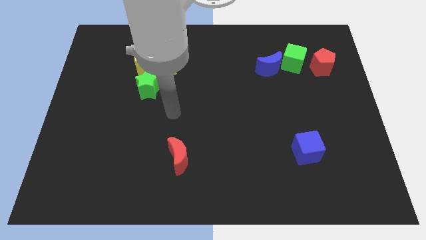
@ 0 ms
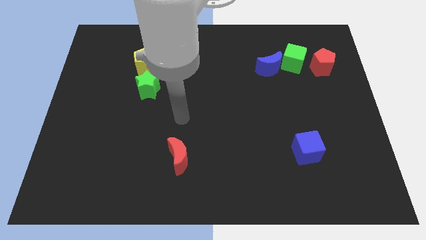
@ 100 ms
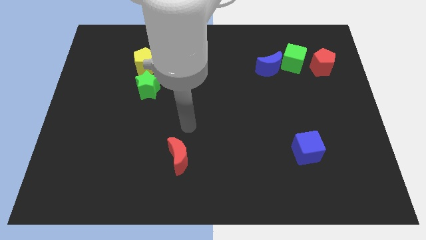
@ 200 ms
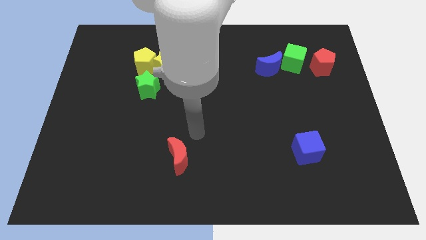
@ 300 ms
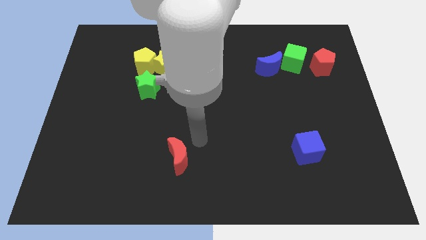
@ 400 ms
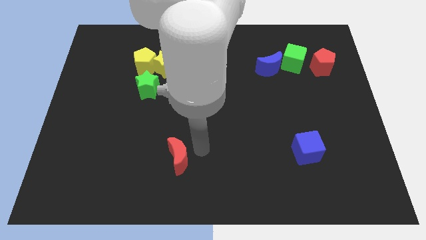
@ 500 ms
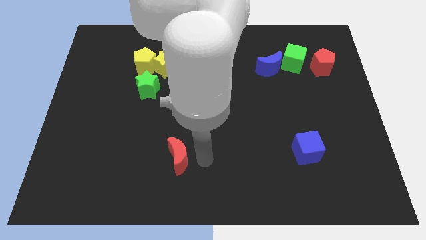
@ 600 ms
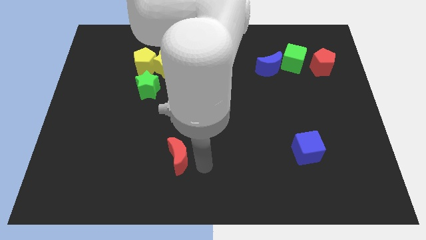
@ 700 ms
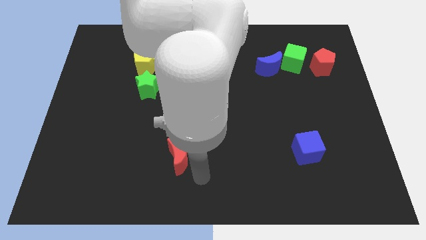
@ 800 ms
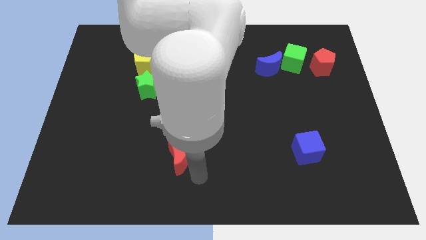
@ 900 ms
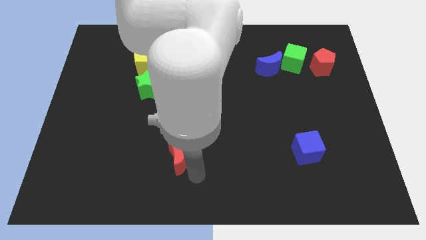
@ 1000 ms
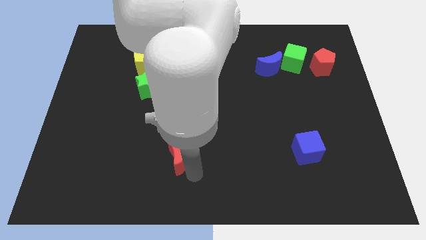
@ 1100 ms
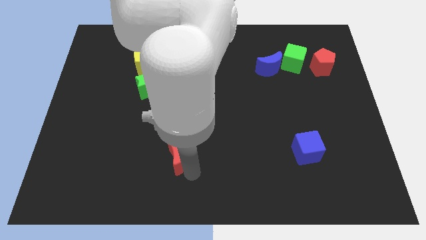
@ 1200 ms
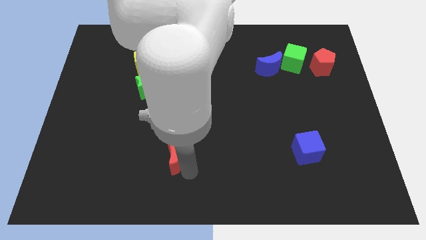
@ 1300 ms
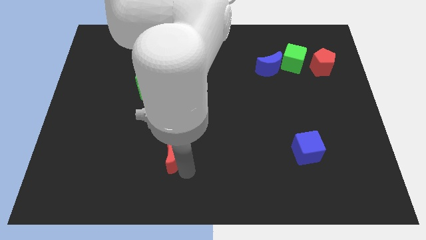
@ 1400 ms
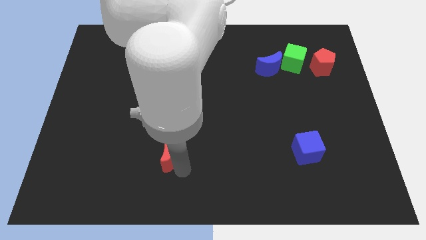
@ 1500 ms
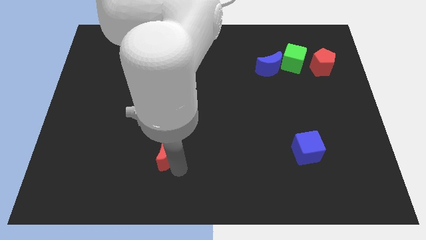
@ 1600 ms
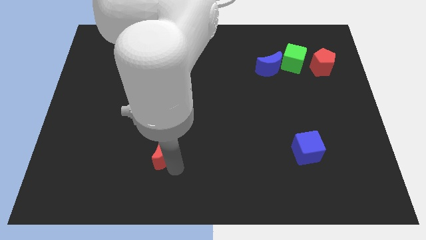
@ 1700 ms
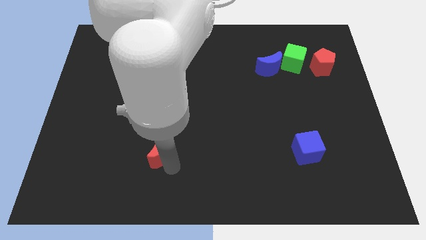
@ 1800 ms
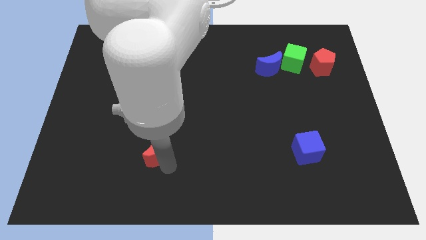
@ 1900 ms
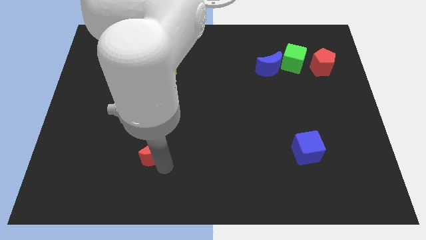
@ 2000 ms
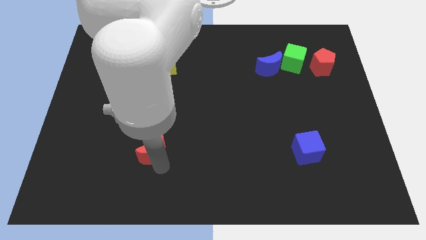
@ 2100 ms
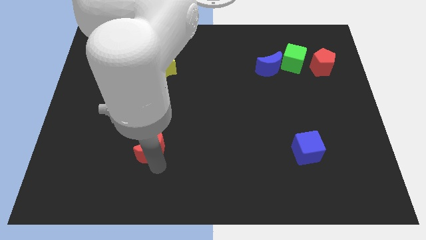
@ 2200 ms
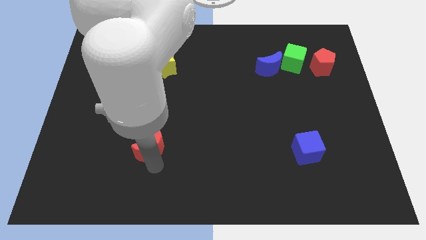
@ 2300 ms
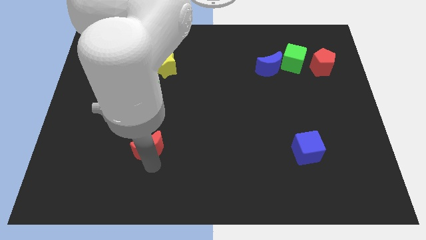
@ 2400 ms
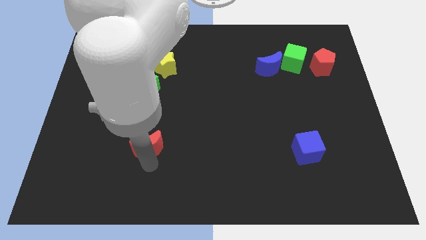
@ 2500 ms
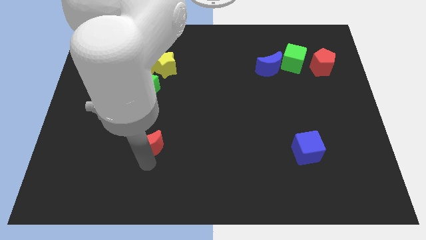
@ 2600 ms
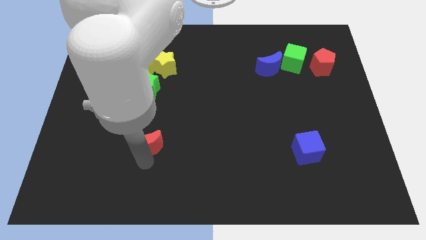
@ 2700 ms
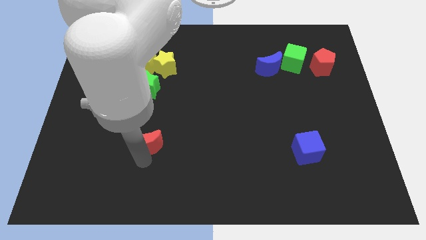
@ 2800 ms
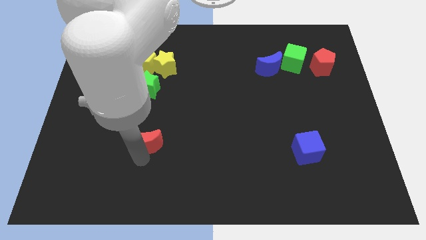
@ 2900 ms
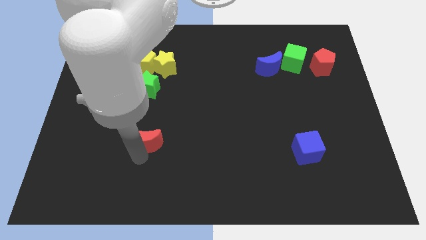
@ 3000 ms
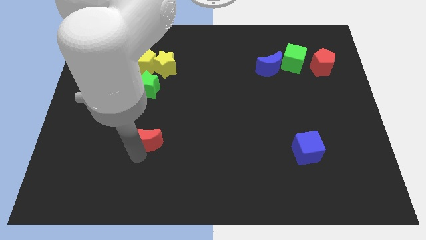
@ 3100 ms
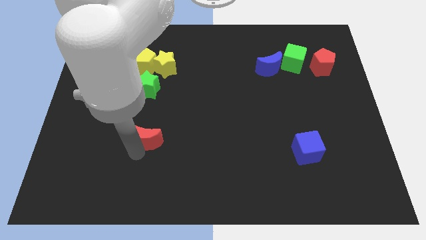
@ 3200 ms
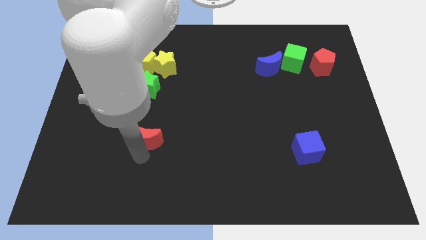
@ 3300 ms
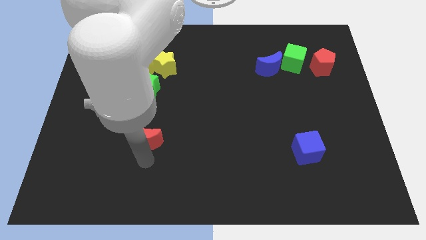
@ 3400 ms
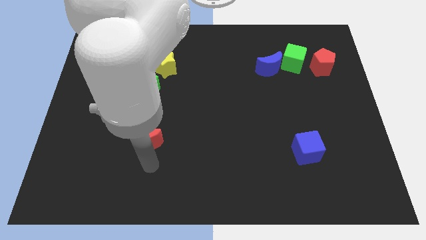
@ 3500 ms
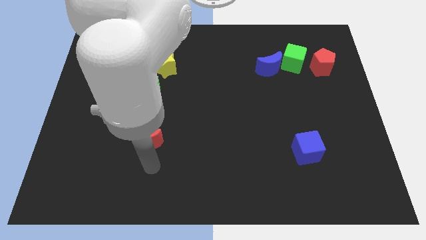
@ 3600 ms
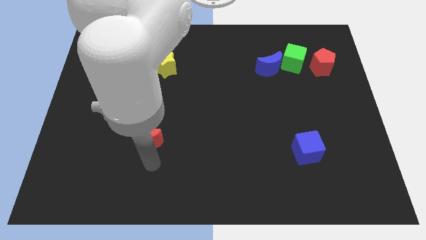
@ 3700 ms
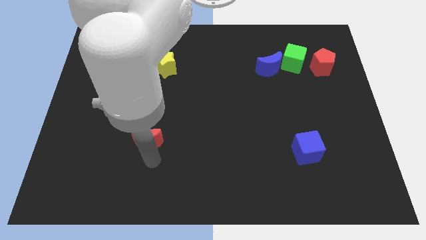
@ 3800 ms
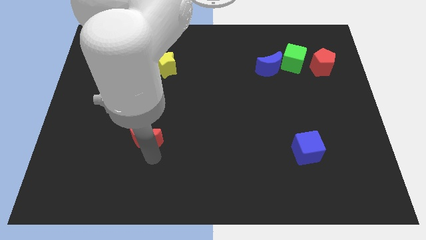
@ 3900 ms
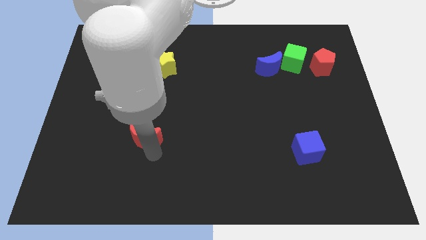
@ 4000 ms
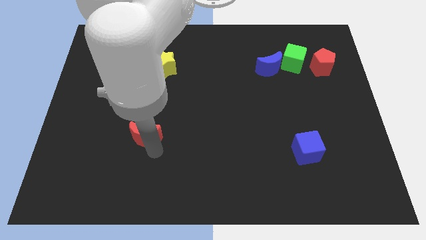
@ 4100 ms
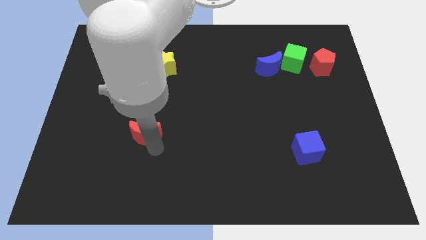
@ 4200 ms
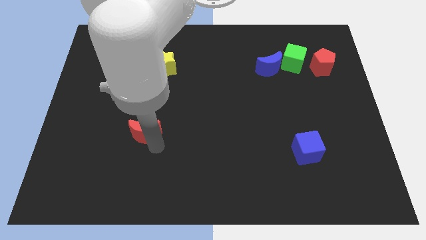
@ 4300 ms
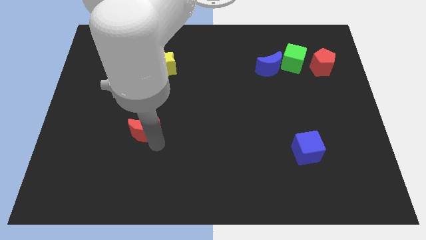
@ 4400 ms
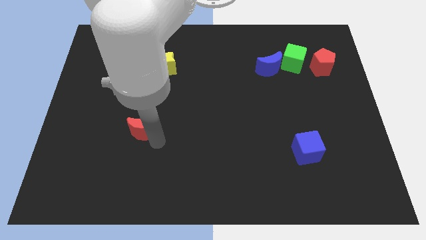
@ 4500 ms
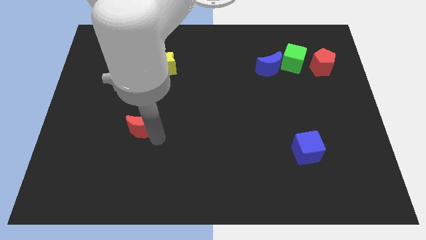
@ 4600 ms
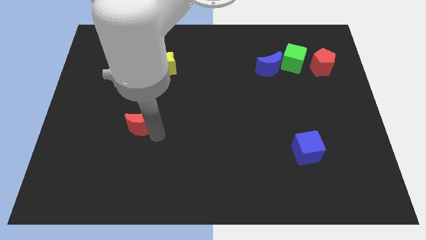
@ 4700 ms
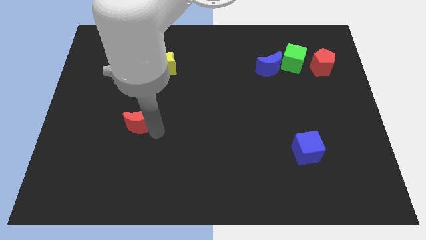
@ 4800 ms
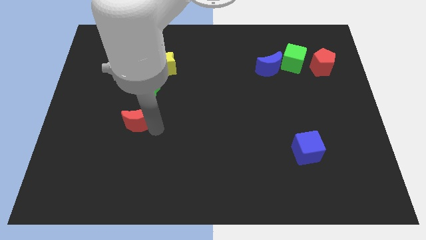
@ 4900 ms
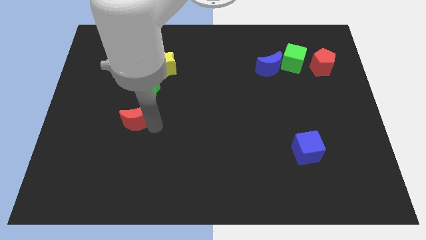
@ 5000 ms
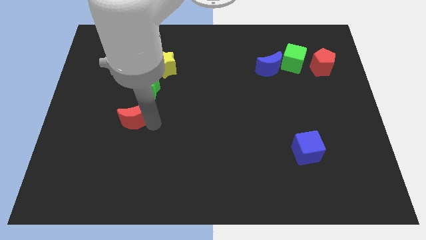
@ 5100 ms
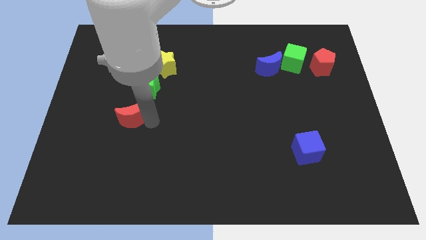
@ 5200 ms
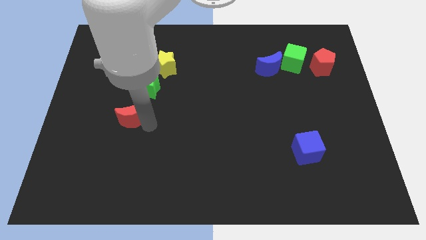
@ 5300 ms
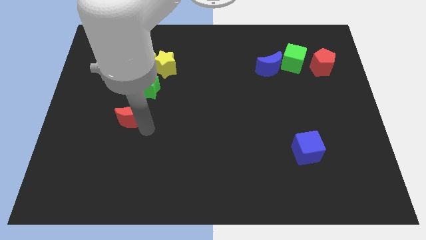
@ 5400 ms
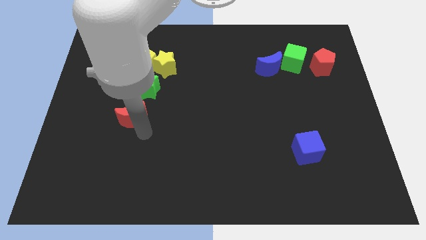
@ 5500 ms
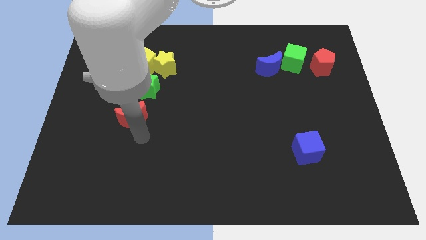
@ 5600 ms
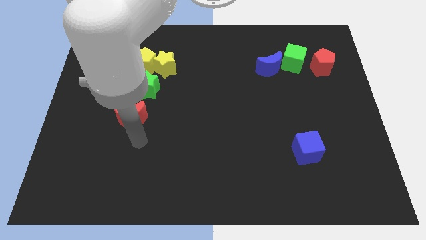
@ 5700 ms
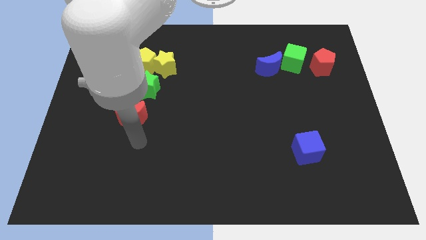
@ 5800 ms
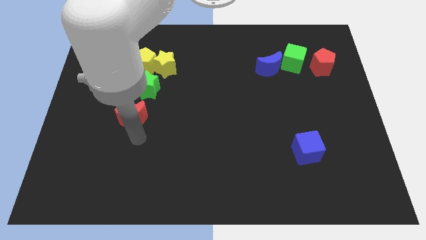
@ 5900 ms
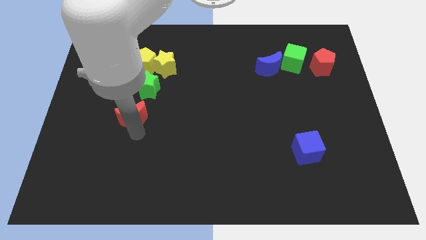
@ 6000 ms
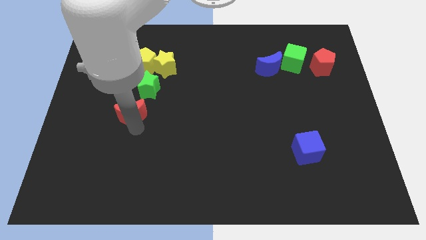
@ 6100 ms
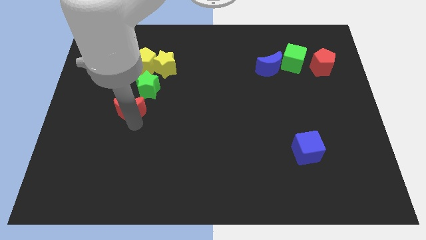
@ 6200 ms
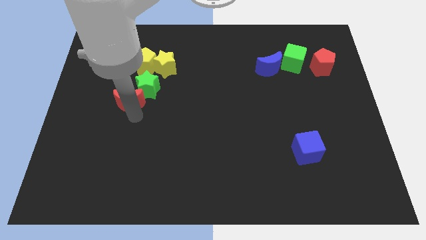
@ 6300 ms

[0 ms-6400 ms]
slide the red moon just left of the green star
